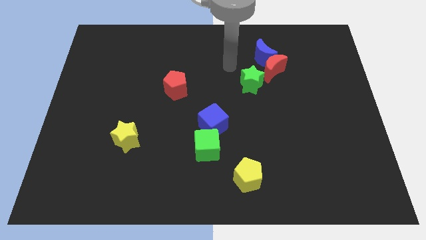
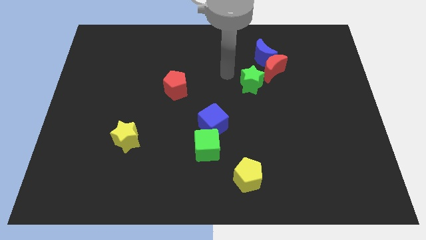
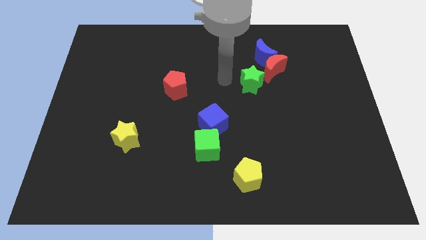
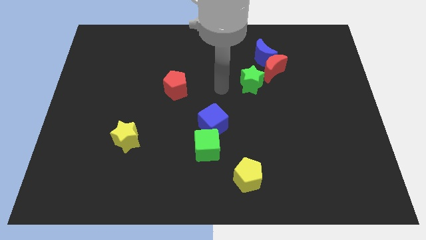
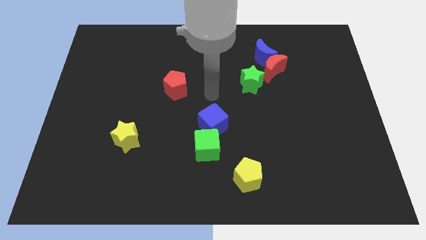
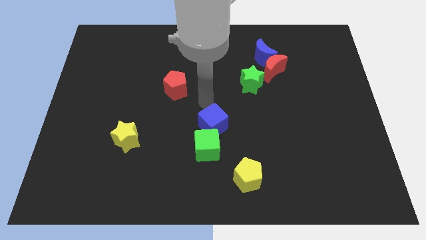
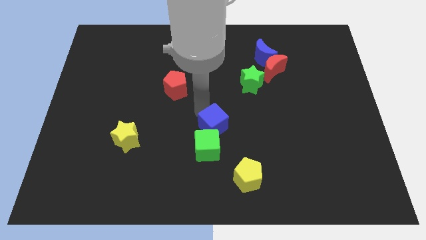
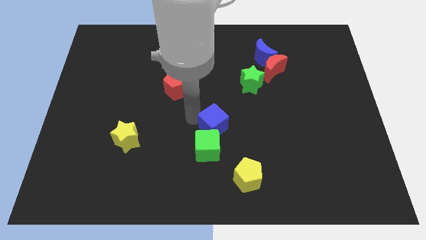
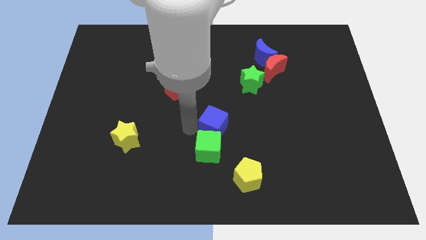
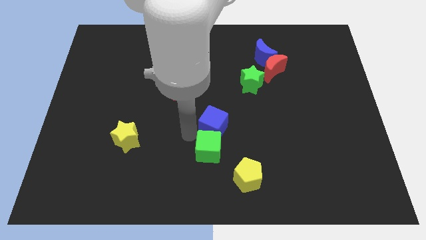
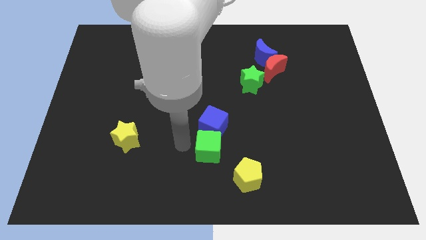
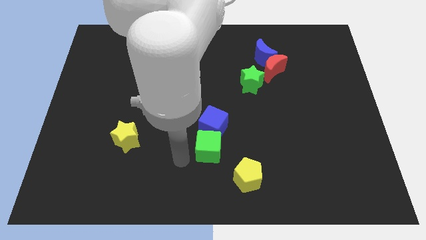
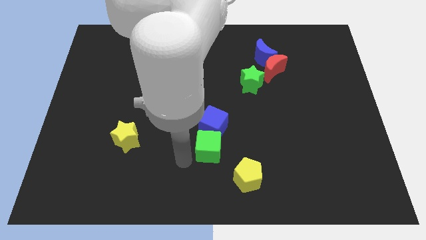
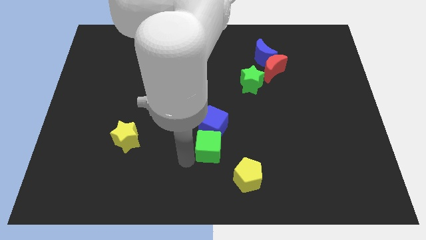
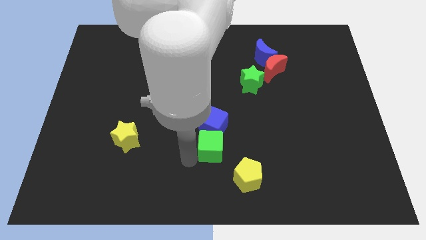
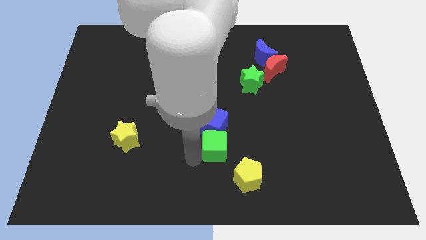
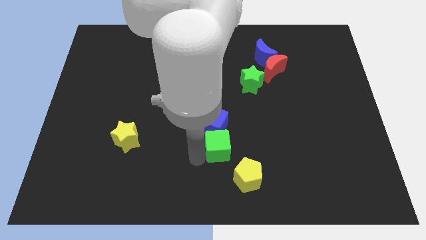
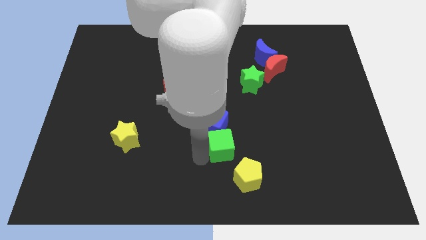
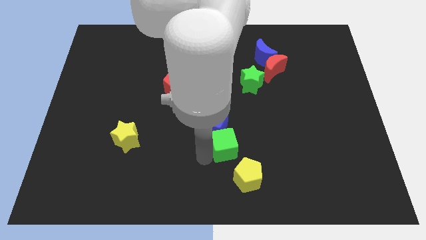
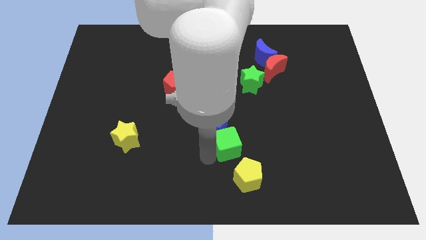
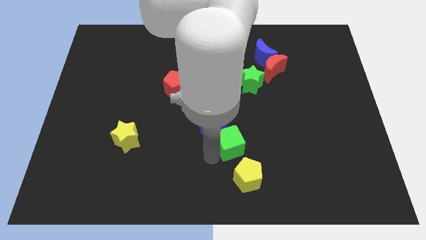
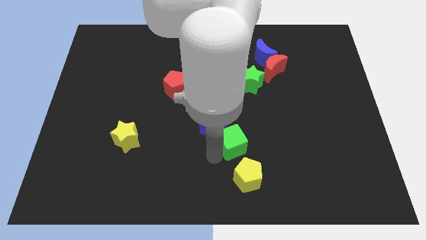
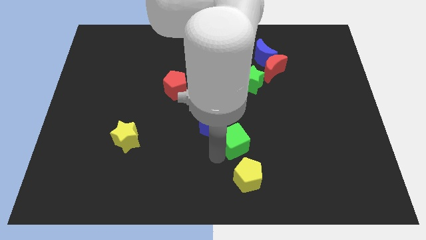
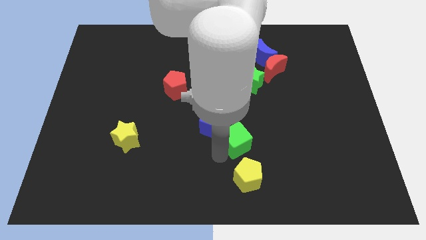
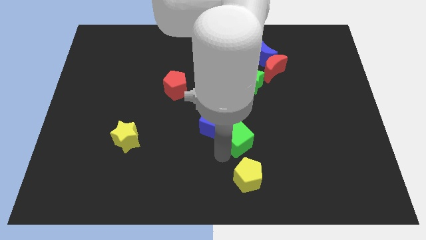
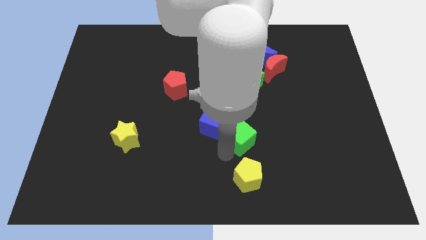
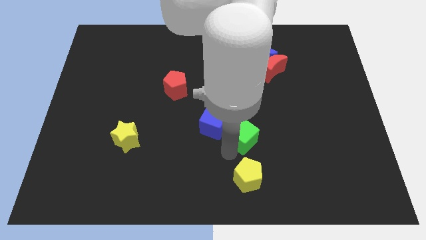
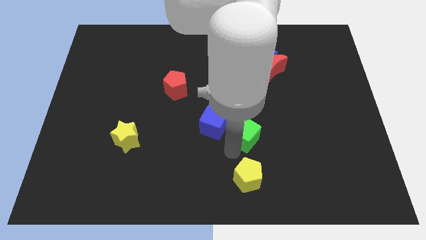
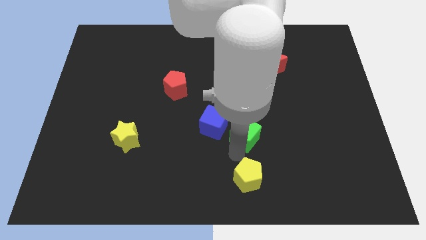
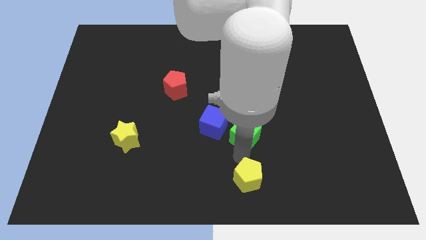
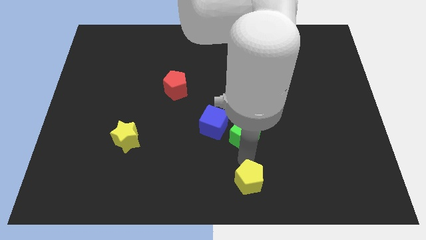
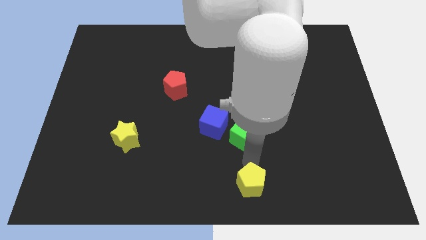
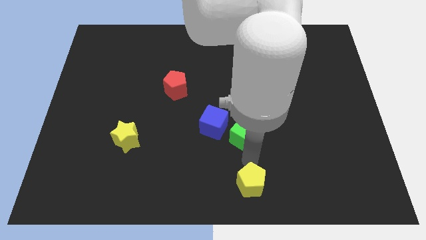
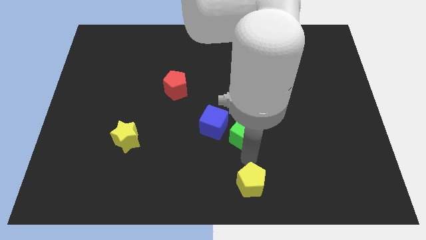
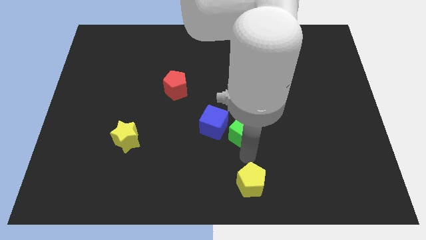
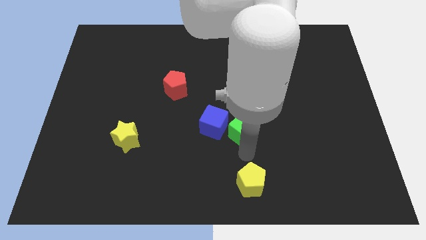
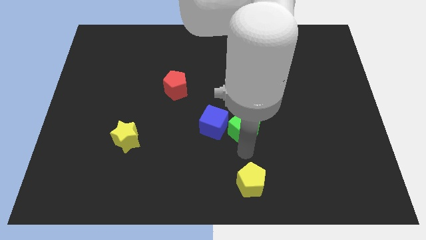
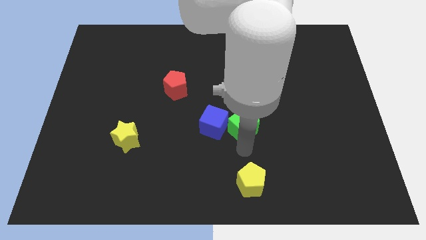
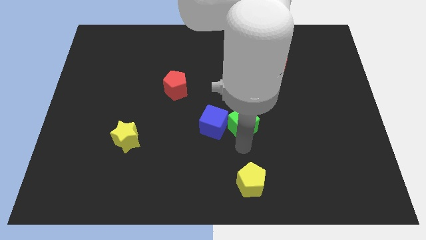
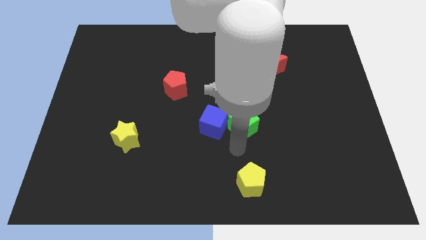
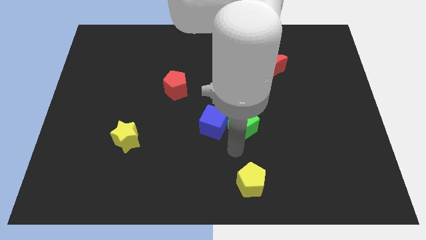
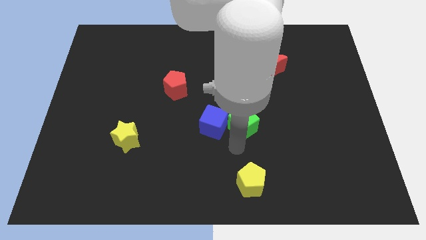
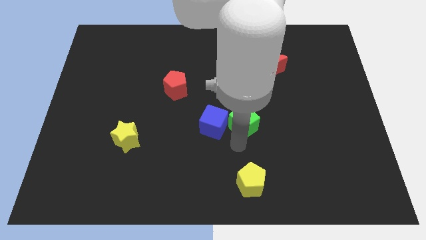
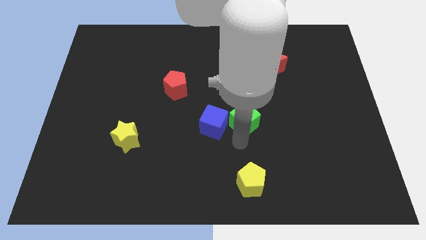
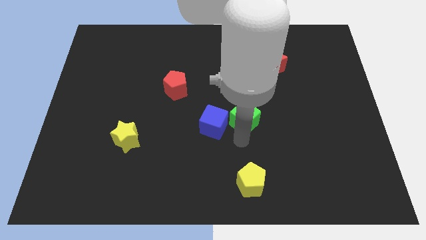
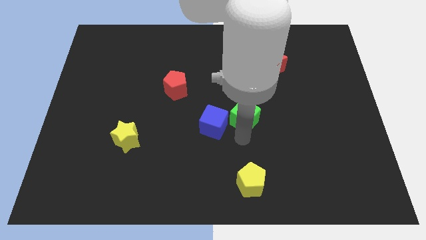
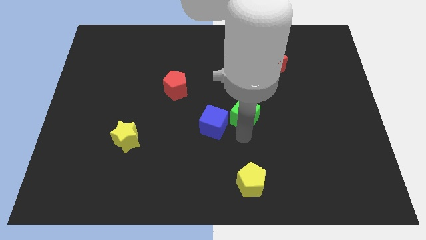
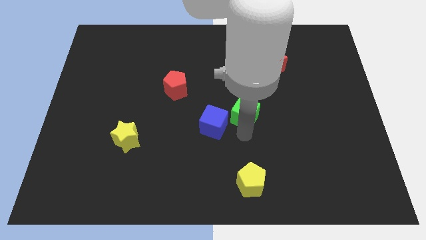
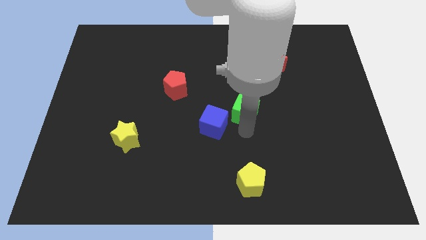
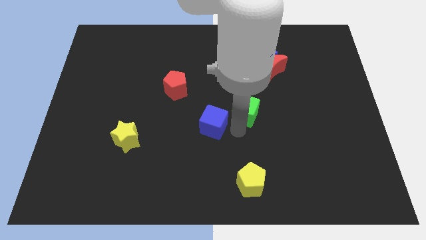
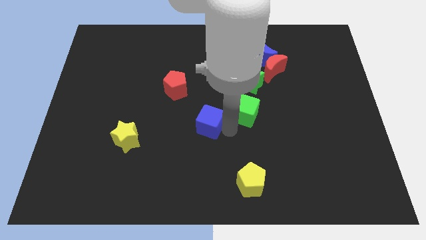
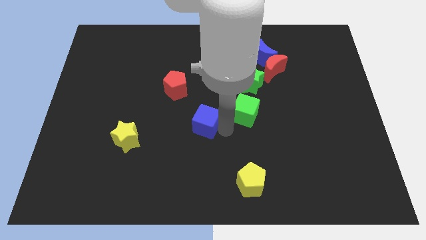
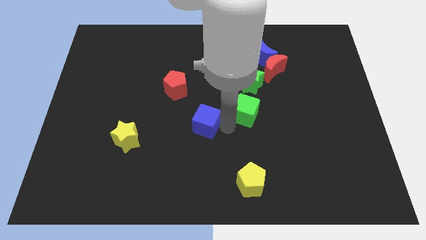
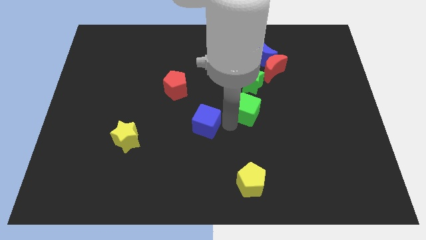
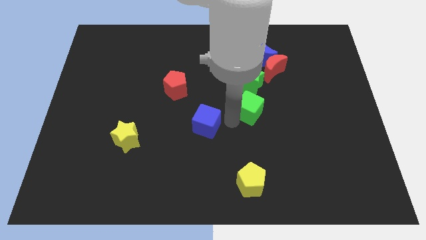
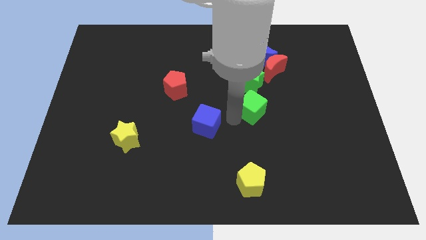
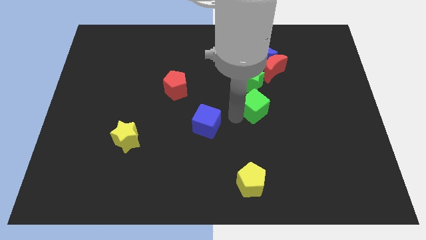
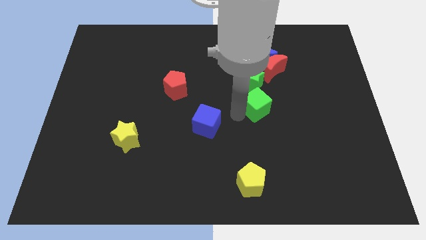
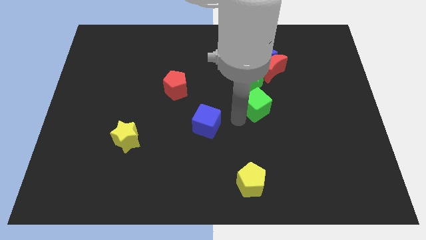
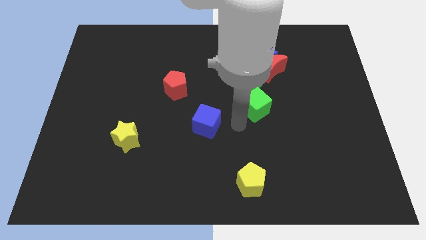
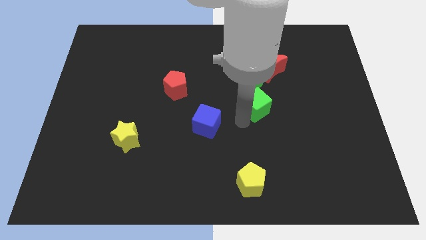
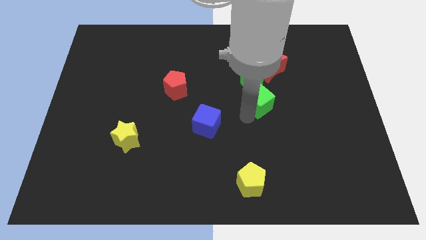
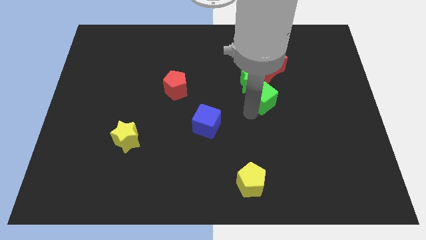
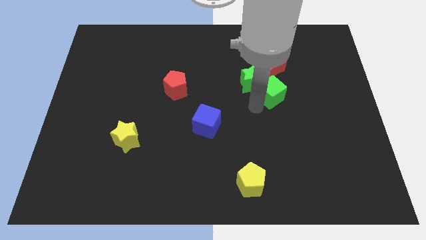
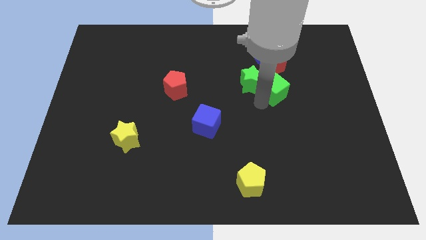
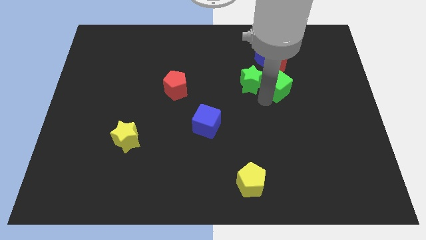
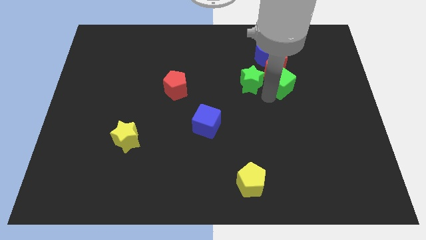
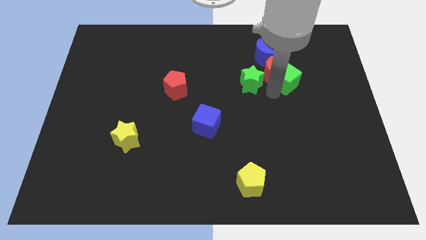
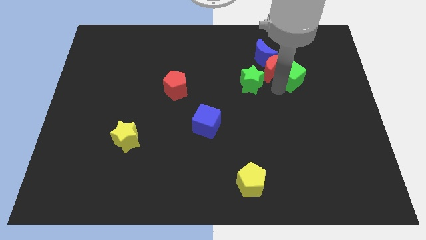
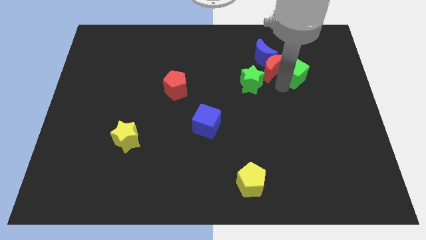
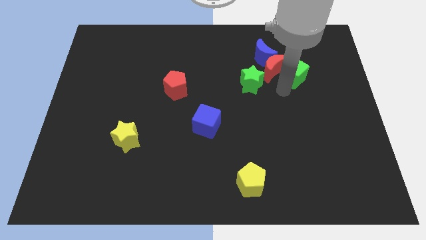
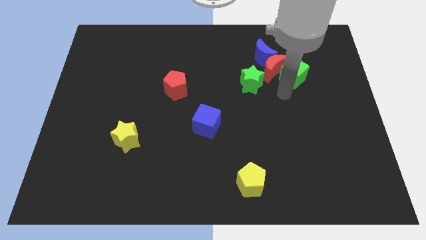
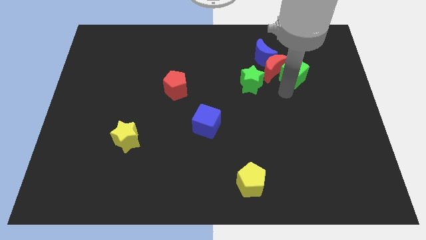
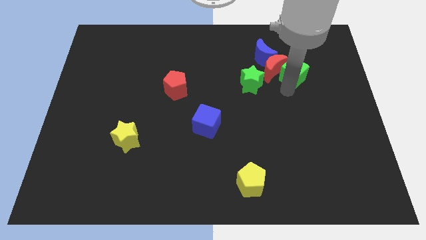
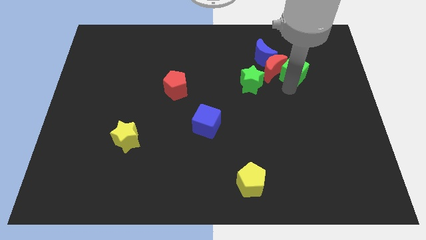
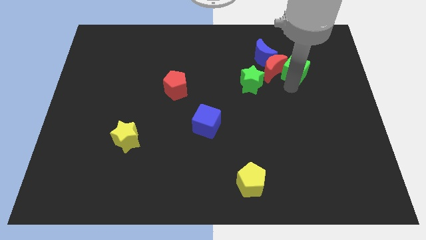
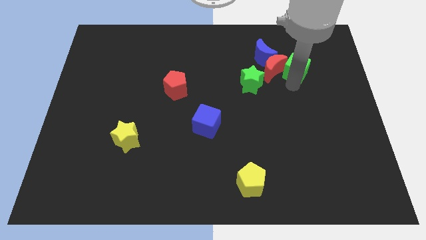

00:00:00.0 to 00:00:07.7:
push the green cube right of the blue moon

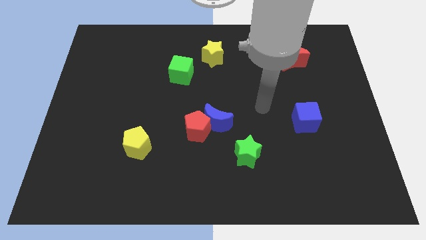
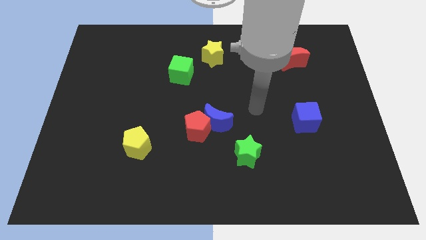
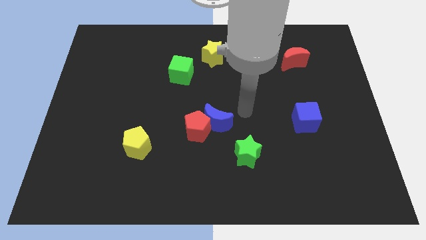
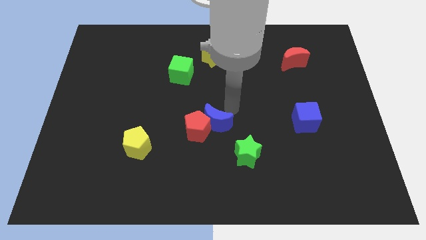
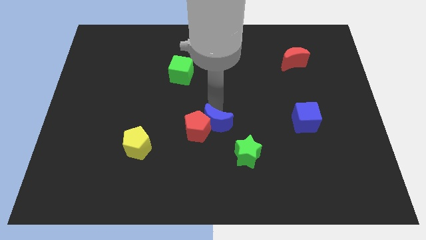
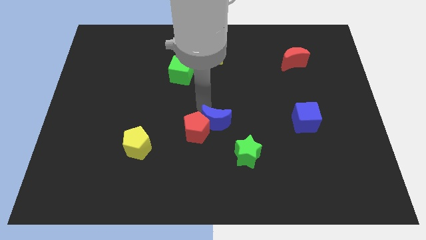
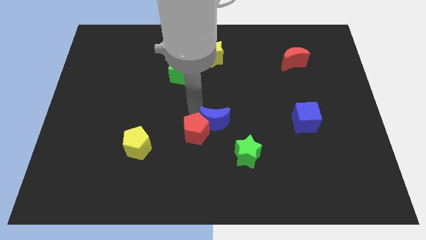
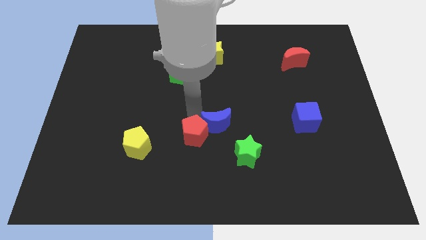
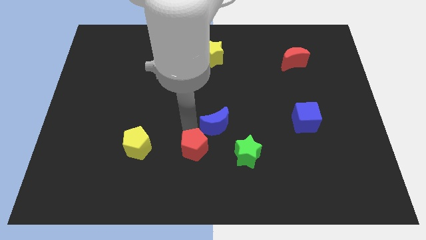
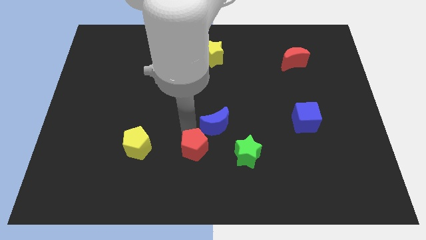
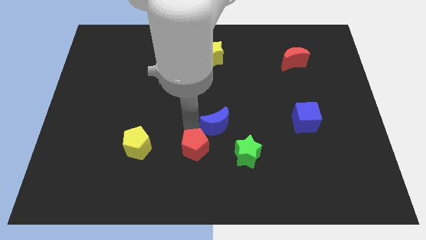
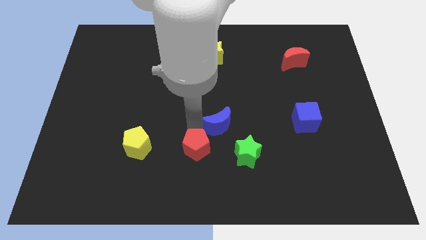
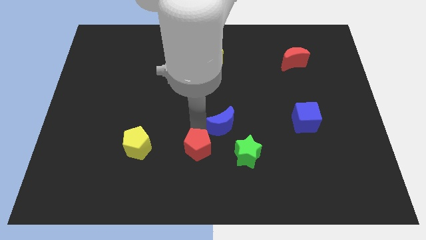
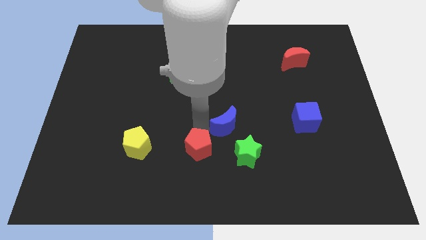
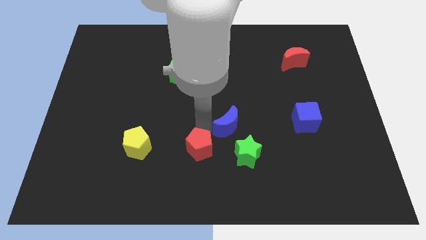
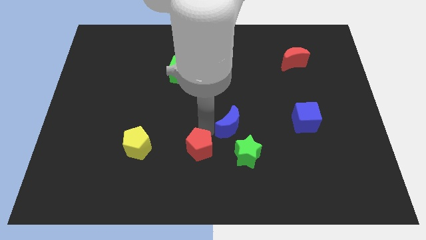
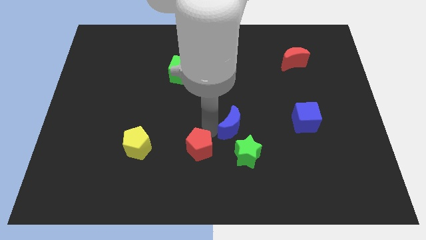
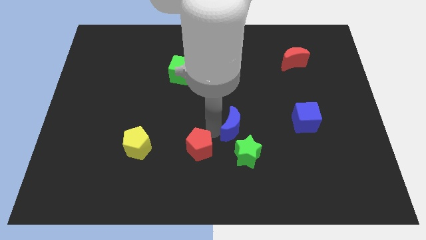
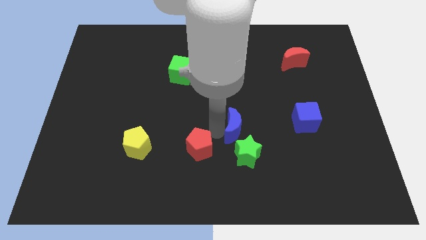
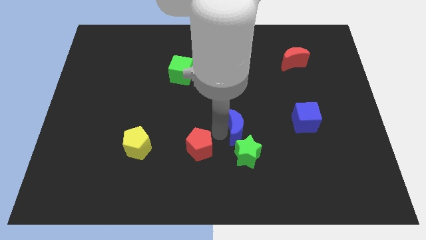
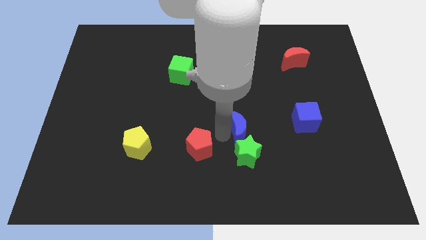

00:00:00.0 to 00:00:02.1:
move the blue moon to the left side of the blue cube
